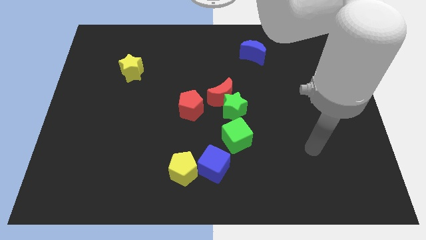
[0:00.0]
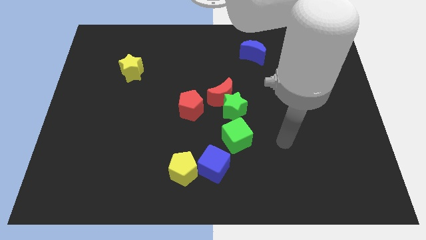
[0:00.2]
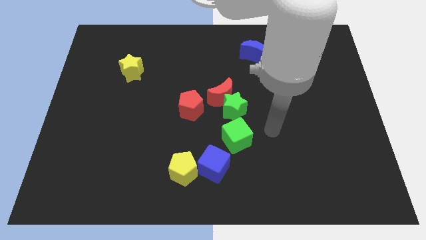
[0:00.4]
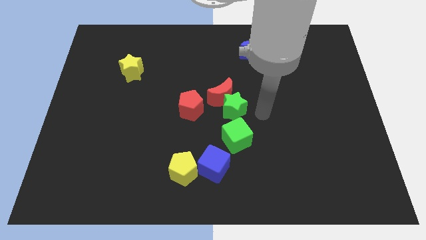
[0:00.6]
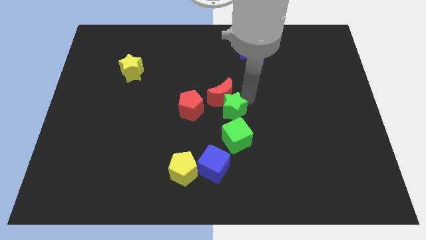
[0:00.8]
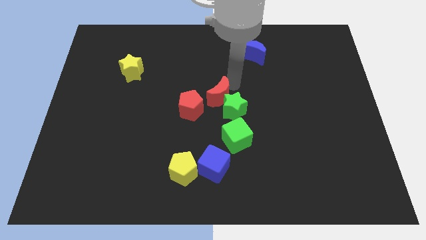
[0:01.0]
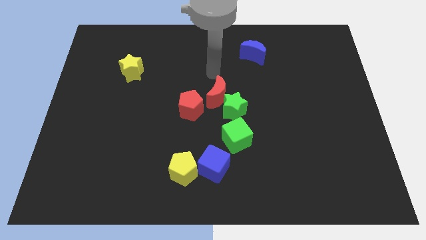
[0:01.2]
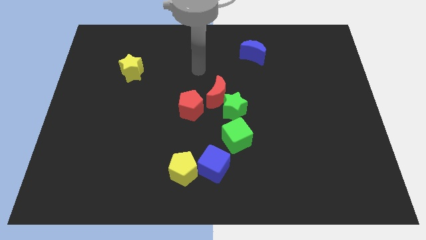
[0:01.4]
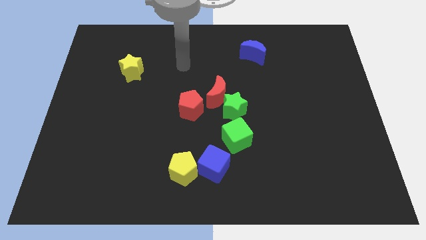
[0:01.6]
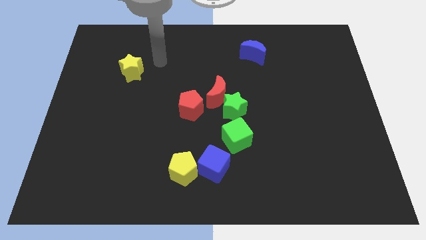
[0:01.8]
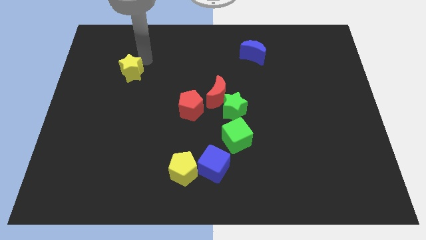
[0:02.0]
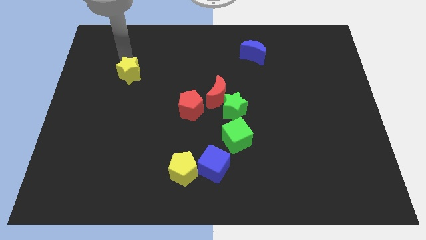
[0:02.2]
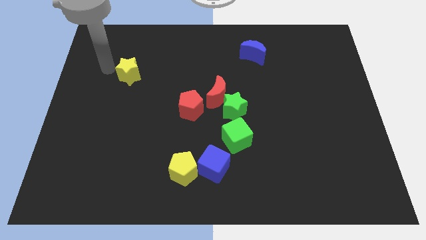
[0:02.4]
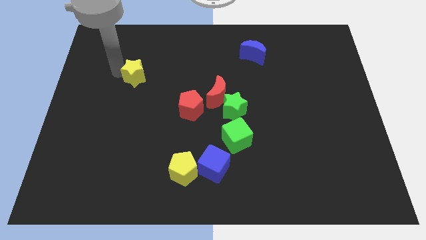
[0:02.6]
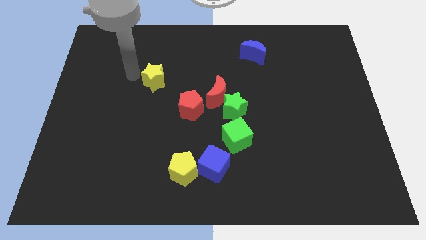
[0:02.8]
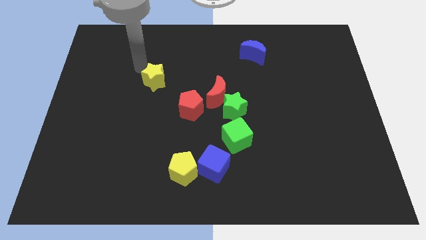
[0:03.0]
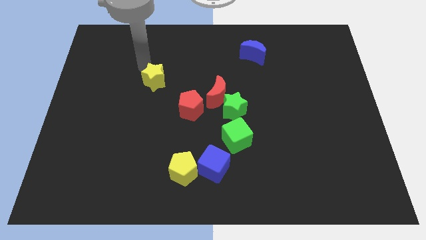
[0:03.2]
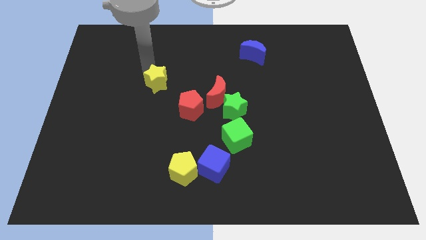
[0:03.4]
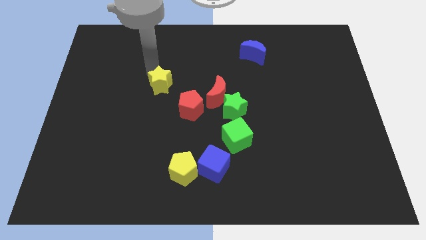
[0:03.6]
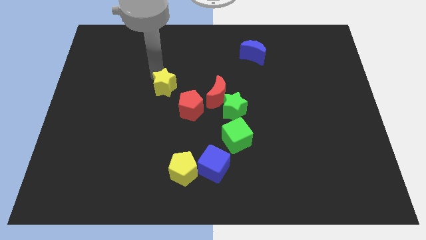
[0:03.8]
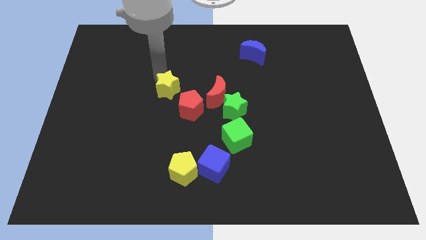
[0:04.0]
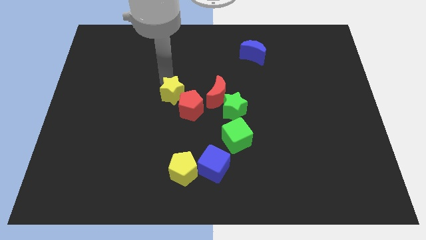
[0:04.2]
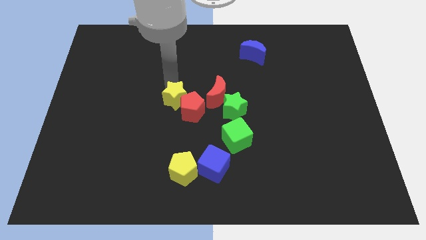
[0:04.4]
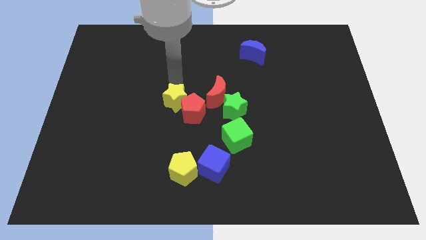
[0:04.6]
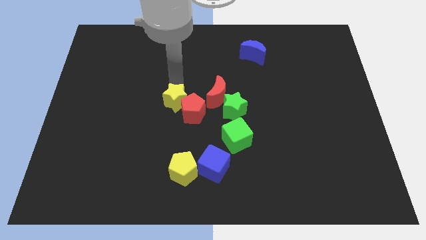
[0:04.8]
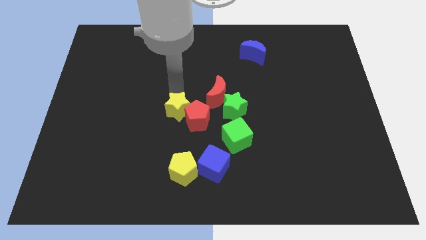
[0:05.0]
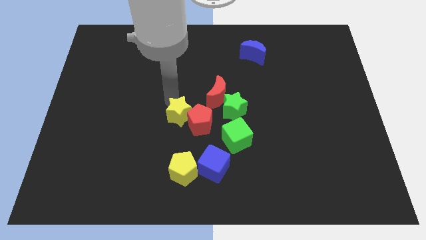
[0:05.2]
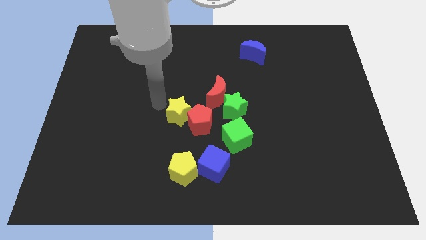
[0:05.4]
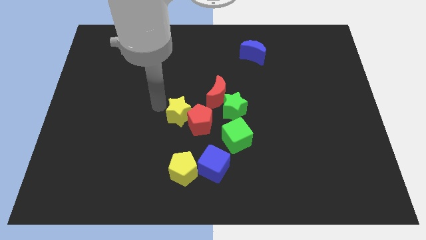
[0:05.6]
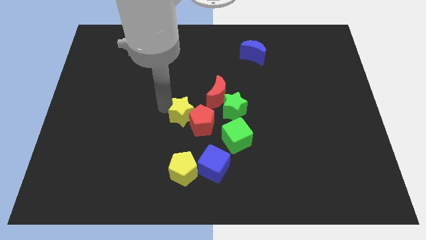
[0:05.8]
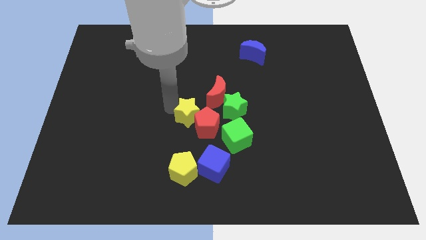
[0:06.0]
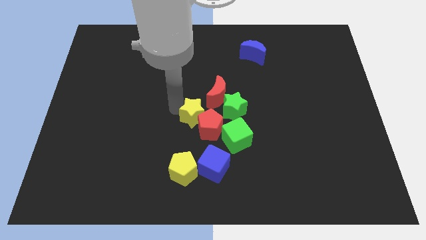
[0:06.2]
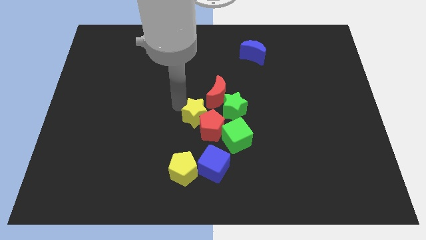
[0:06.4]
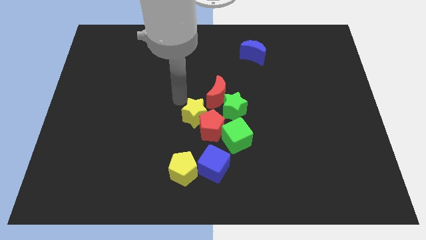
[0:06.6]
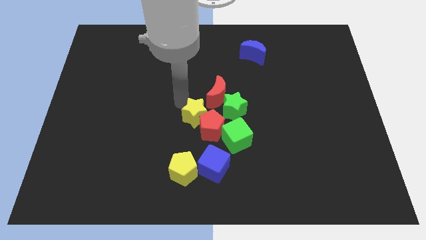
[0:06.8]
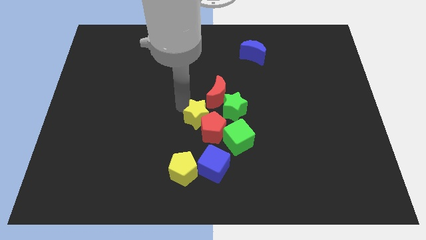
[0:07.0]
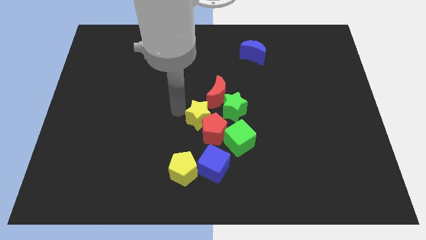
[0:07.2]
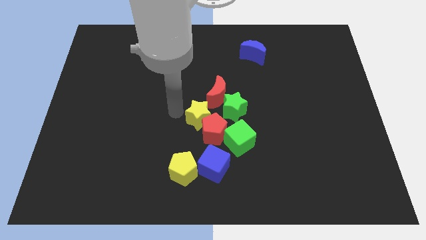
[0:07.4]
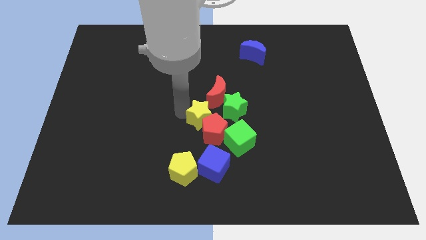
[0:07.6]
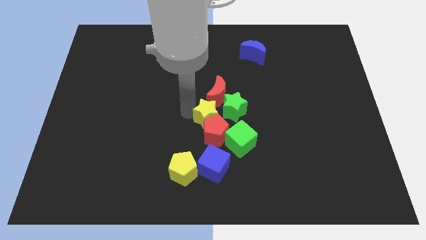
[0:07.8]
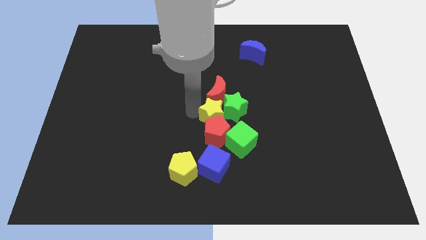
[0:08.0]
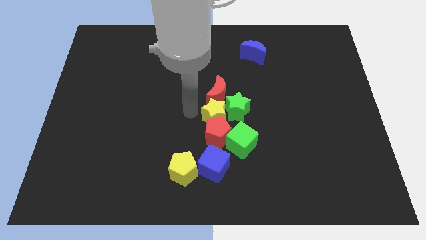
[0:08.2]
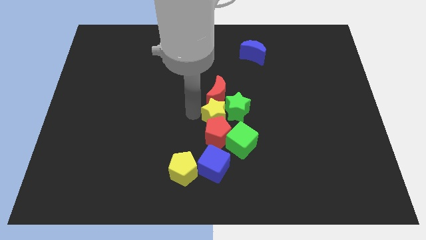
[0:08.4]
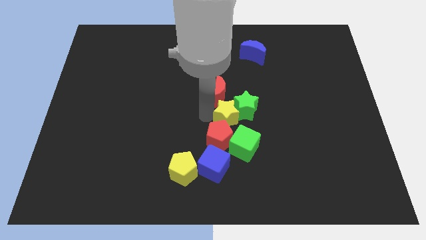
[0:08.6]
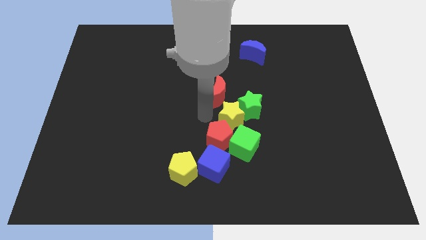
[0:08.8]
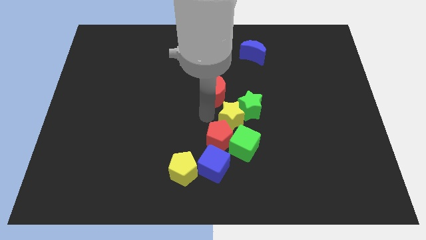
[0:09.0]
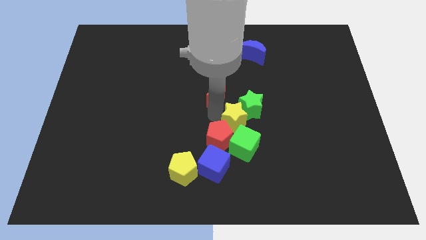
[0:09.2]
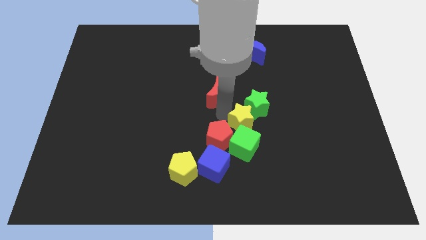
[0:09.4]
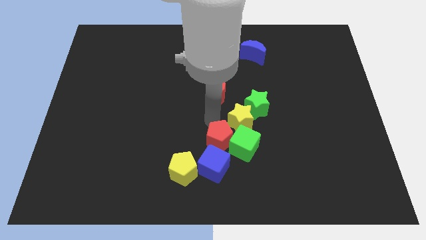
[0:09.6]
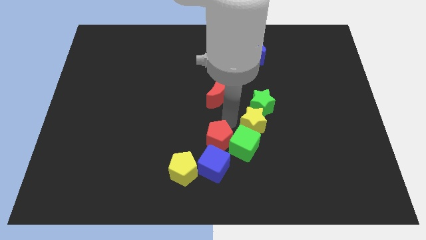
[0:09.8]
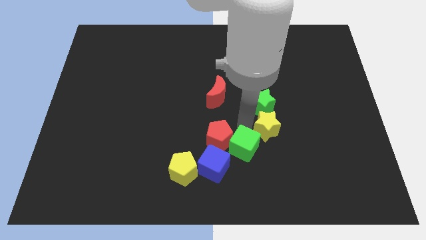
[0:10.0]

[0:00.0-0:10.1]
move the yellow star to the bottom right side of the green star

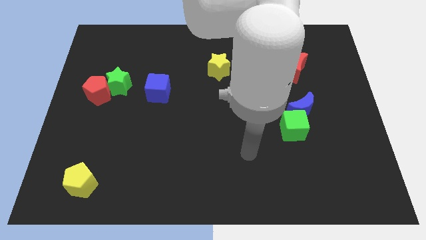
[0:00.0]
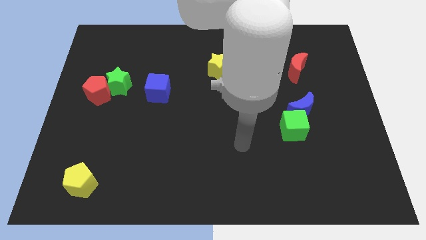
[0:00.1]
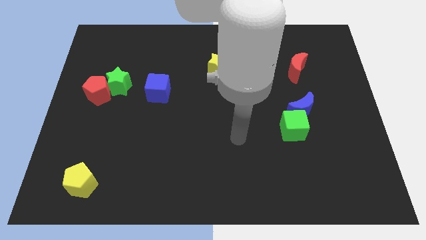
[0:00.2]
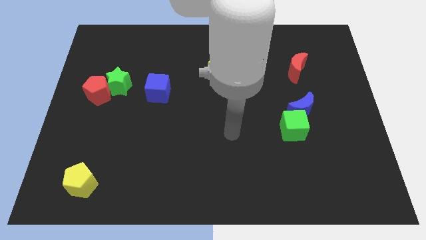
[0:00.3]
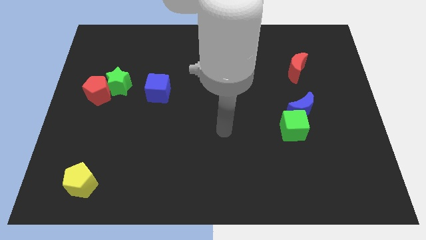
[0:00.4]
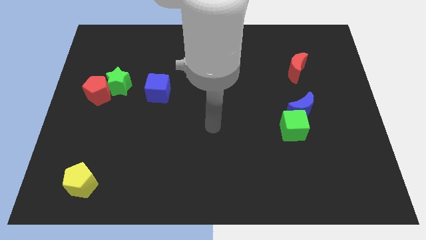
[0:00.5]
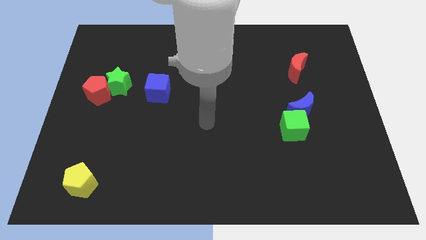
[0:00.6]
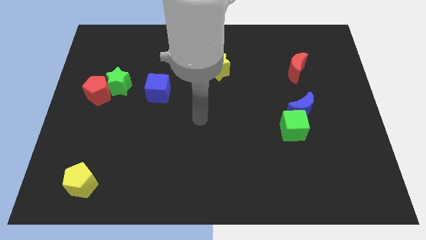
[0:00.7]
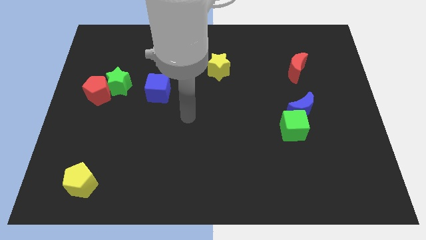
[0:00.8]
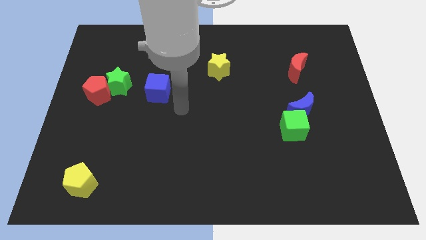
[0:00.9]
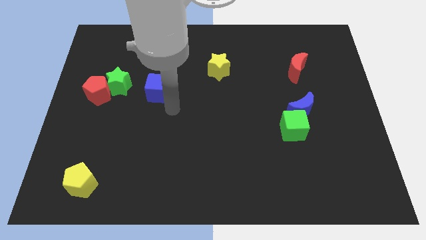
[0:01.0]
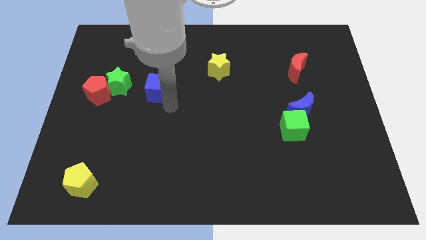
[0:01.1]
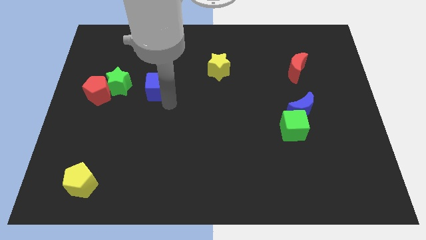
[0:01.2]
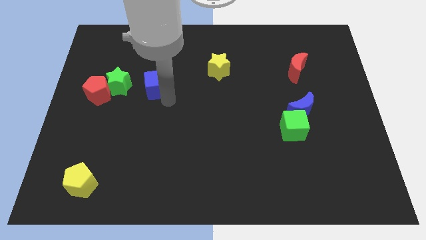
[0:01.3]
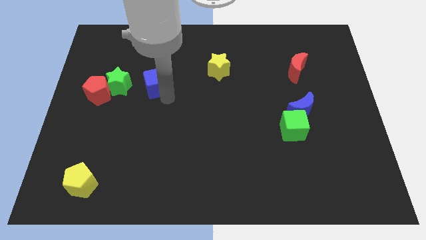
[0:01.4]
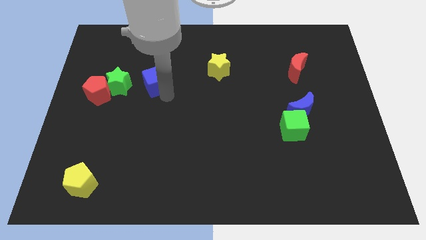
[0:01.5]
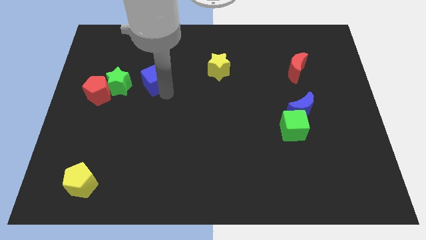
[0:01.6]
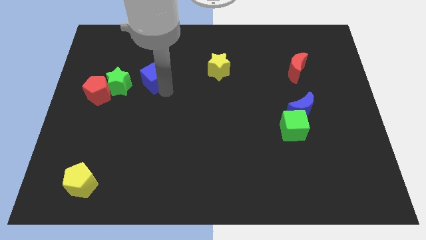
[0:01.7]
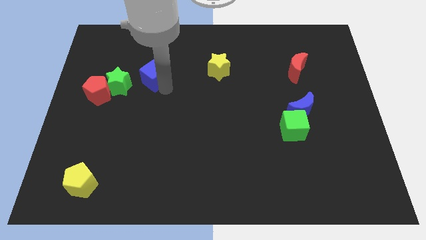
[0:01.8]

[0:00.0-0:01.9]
move the blue cube to the top right of the green star

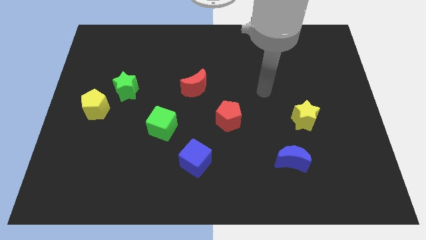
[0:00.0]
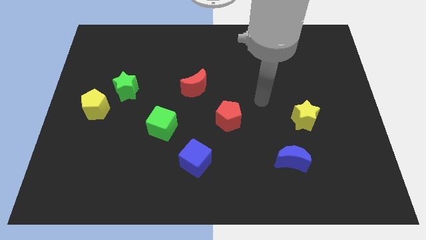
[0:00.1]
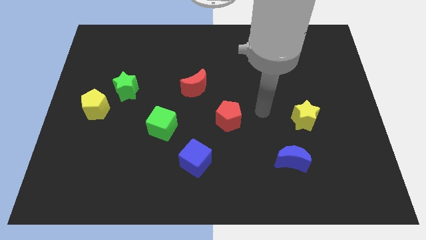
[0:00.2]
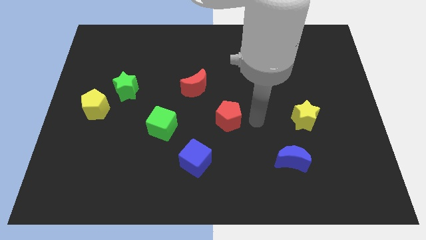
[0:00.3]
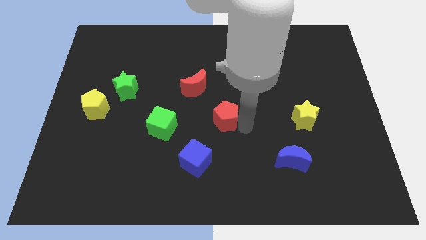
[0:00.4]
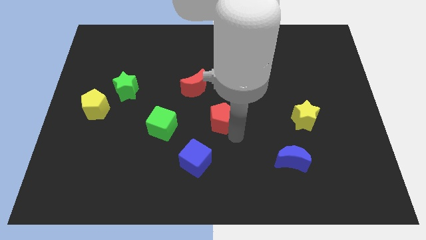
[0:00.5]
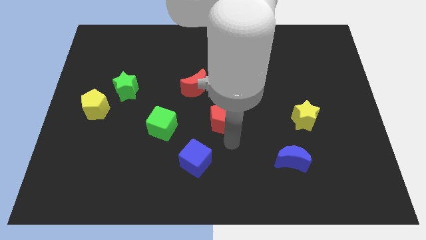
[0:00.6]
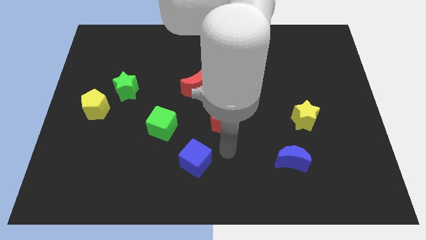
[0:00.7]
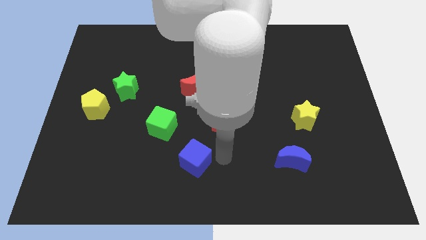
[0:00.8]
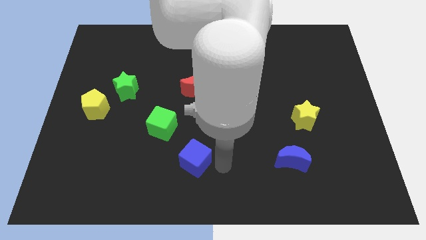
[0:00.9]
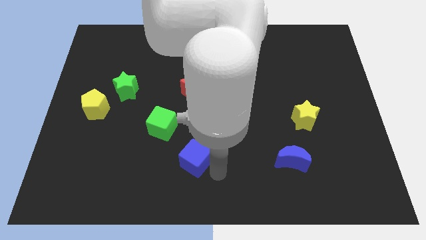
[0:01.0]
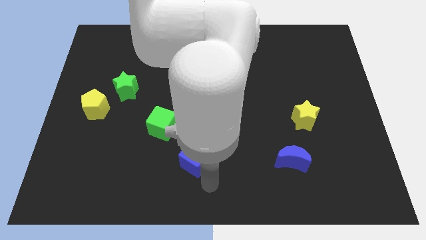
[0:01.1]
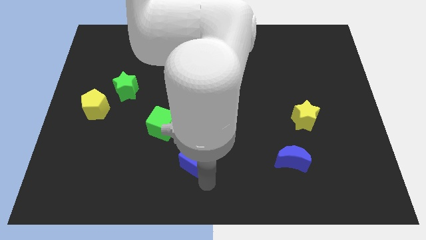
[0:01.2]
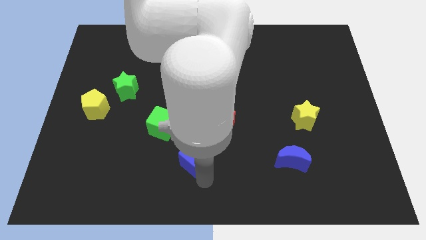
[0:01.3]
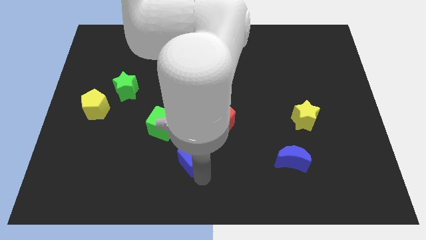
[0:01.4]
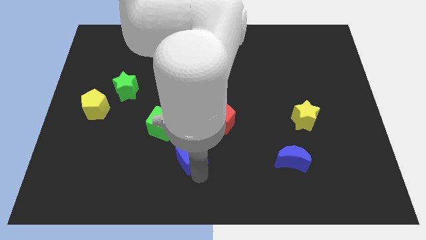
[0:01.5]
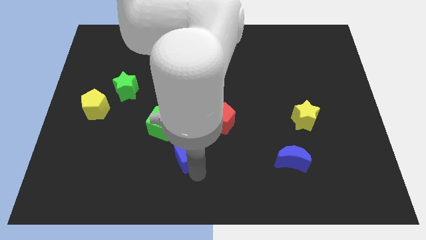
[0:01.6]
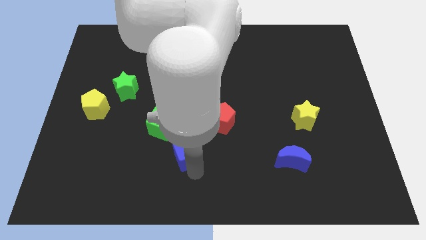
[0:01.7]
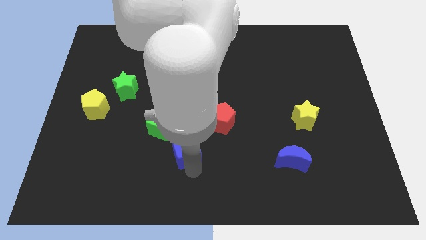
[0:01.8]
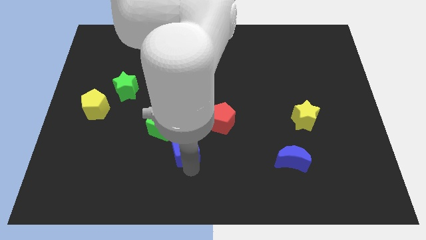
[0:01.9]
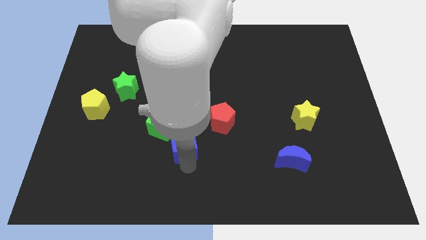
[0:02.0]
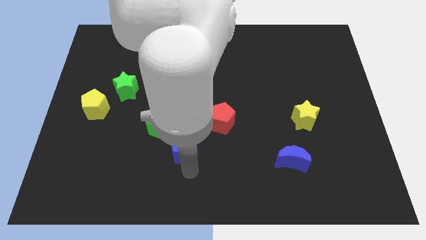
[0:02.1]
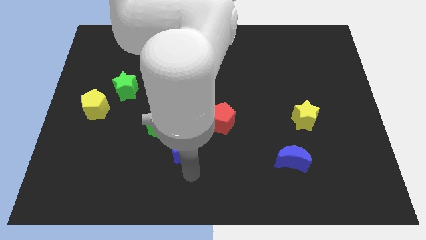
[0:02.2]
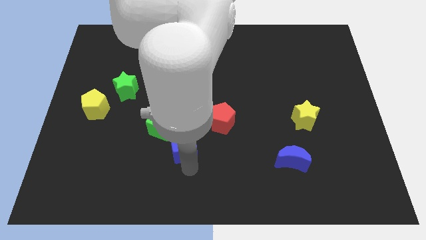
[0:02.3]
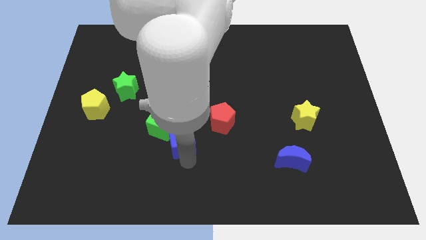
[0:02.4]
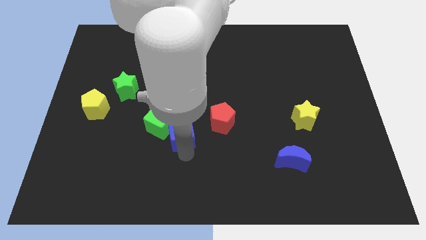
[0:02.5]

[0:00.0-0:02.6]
move the blue cube left of the red pentagon
